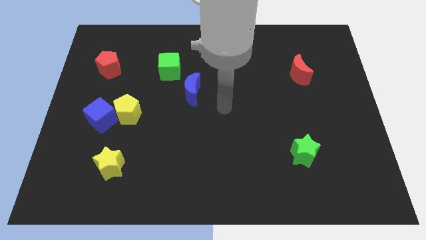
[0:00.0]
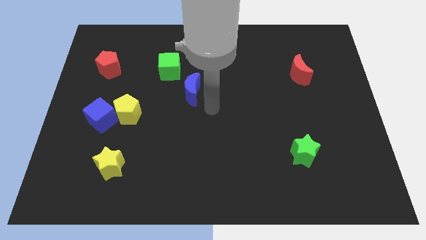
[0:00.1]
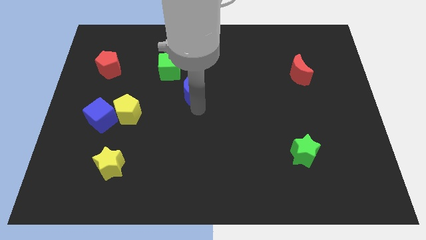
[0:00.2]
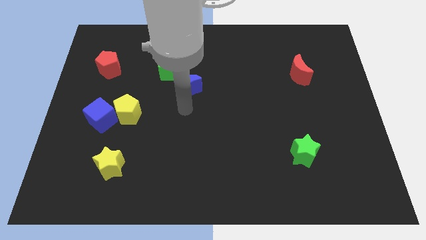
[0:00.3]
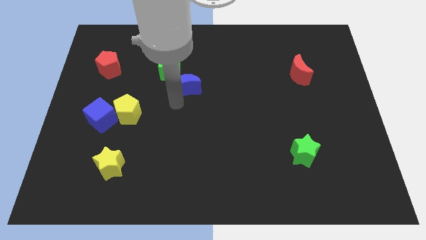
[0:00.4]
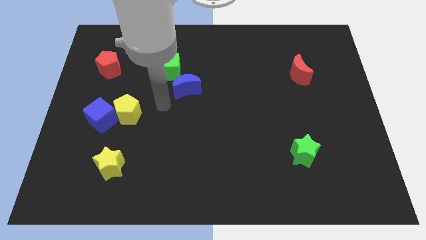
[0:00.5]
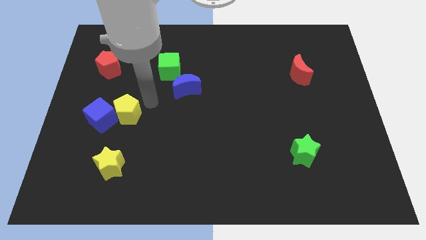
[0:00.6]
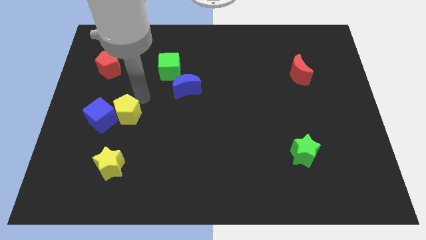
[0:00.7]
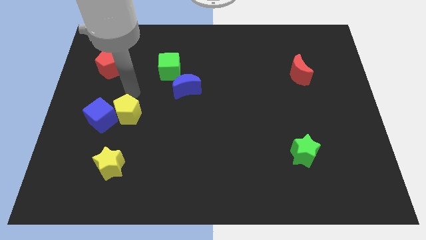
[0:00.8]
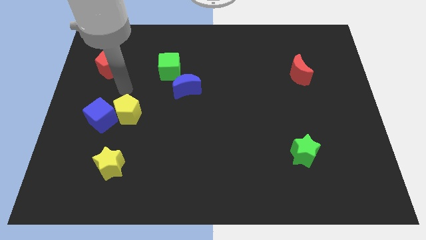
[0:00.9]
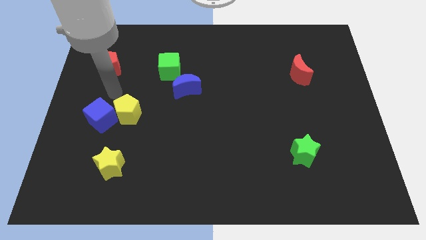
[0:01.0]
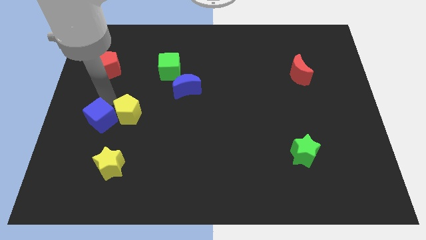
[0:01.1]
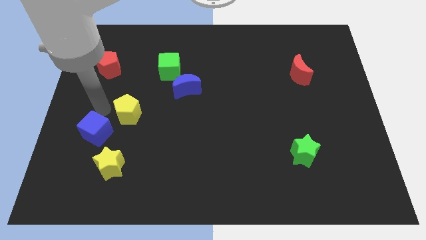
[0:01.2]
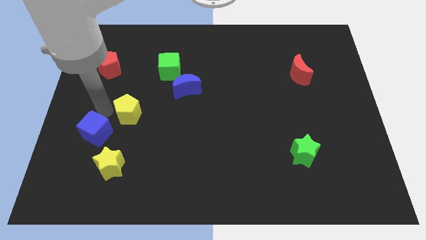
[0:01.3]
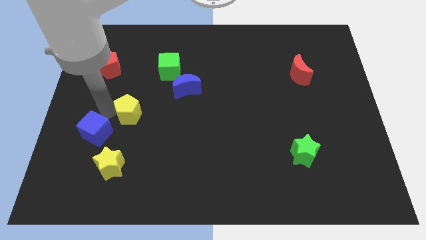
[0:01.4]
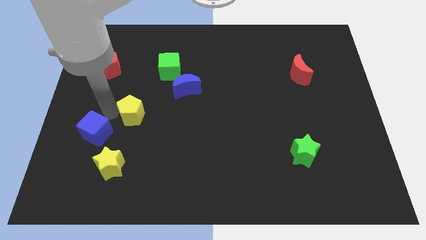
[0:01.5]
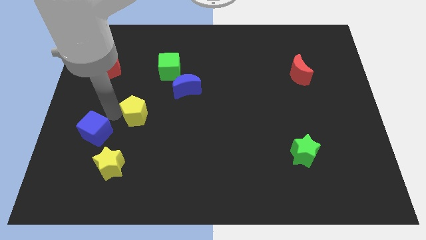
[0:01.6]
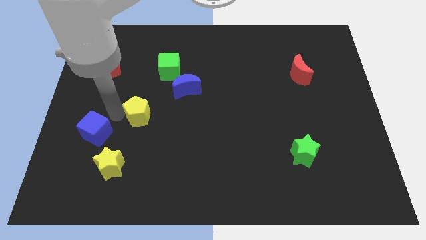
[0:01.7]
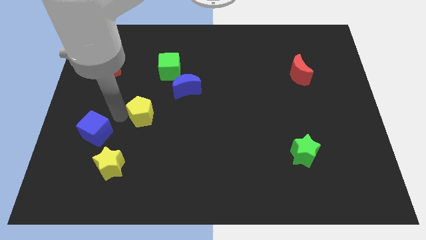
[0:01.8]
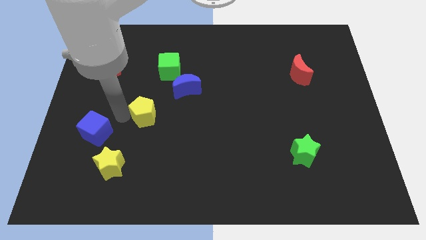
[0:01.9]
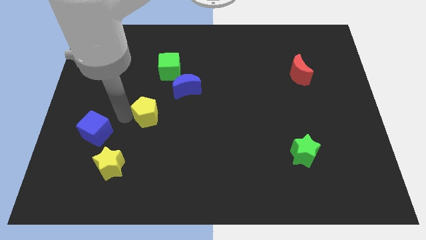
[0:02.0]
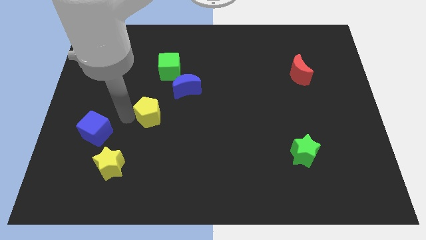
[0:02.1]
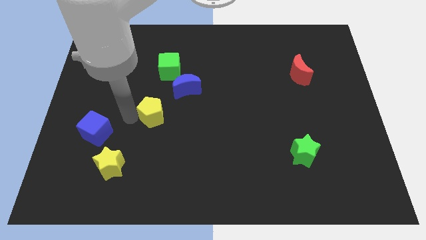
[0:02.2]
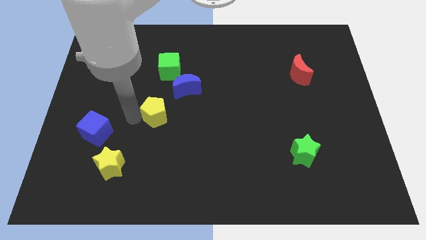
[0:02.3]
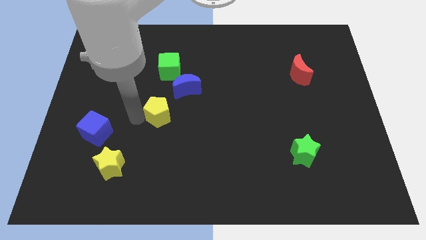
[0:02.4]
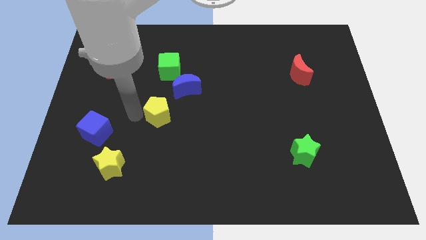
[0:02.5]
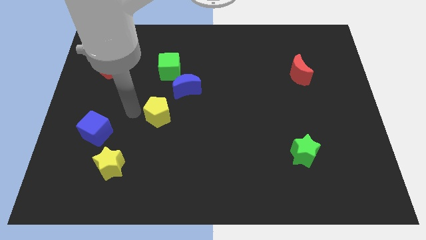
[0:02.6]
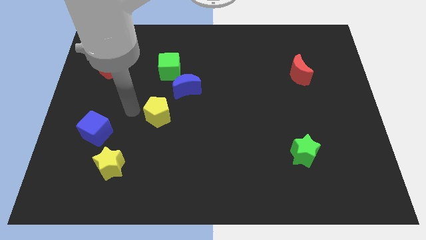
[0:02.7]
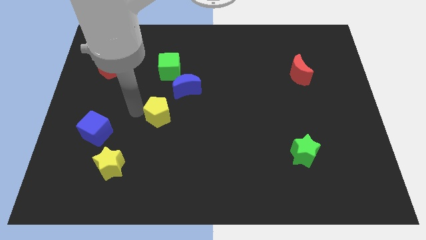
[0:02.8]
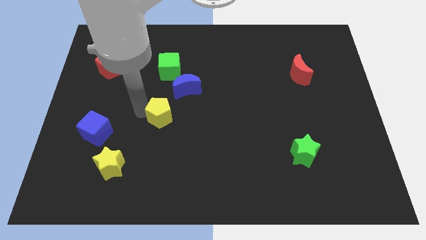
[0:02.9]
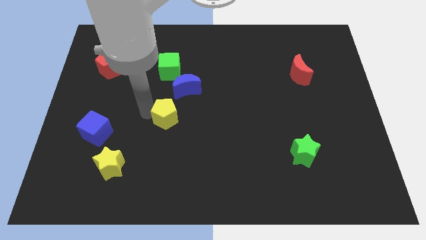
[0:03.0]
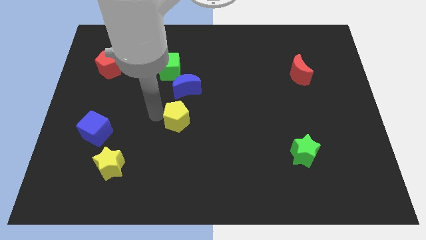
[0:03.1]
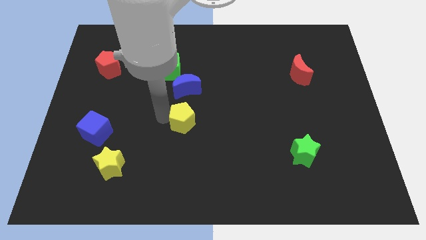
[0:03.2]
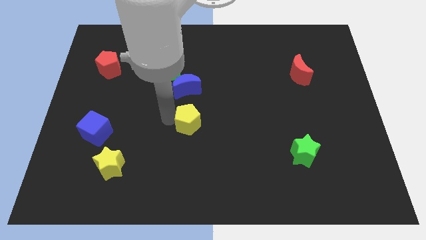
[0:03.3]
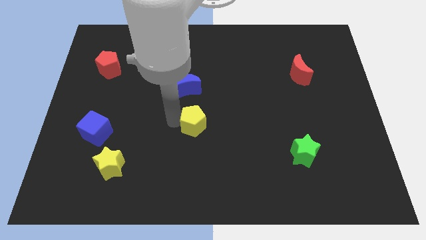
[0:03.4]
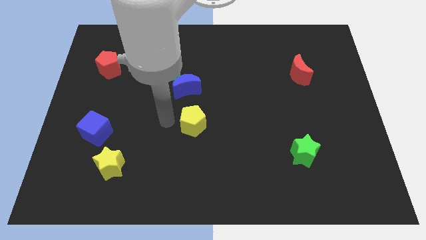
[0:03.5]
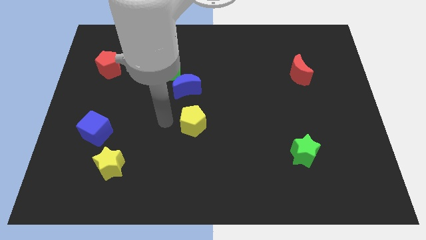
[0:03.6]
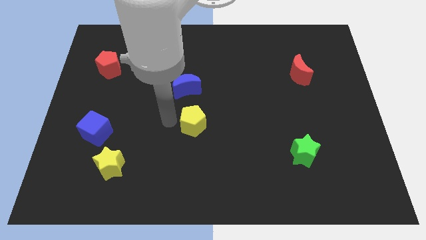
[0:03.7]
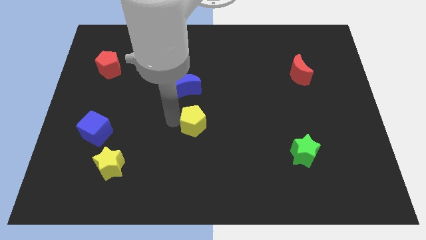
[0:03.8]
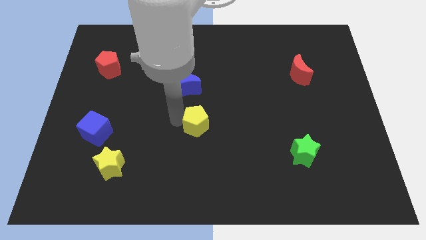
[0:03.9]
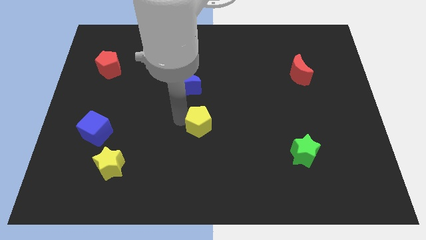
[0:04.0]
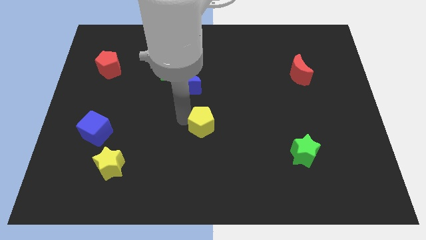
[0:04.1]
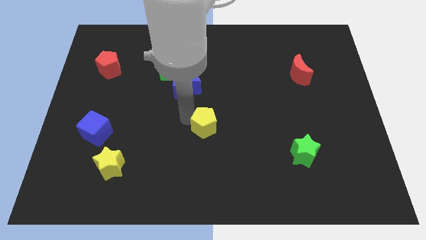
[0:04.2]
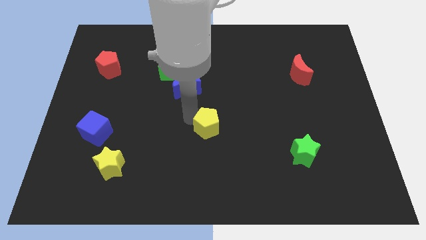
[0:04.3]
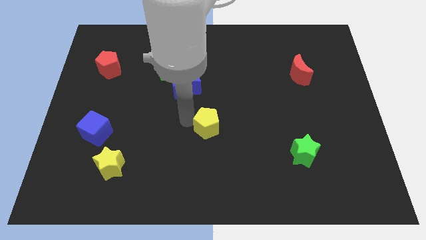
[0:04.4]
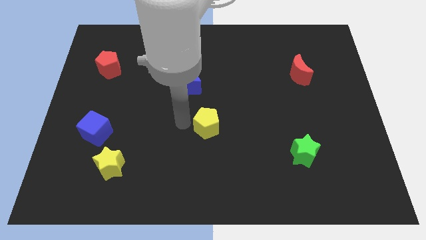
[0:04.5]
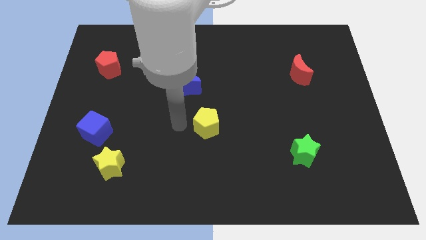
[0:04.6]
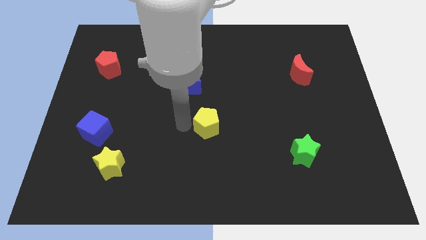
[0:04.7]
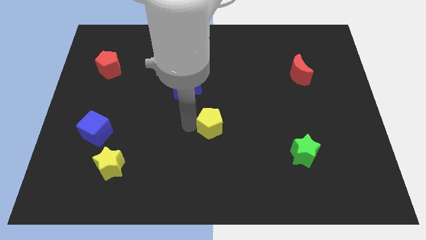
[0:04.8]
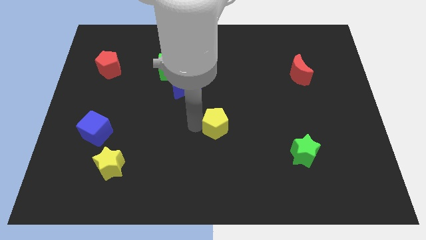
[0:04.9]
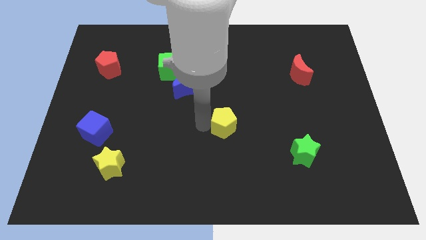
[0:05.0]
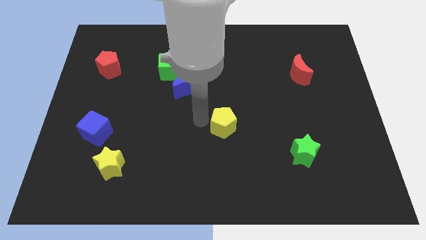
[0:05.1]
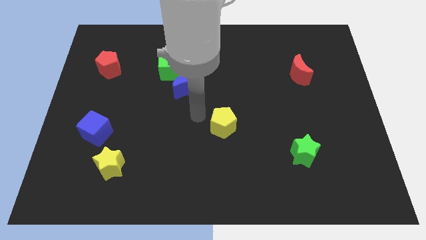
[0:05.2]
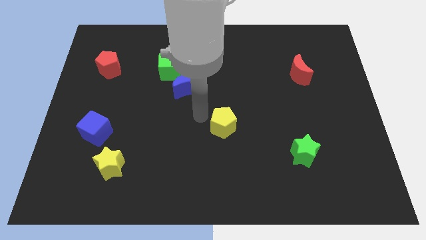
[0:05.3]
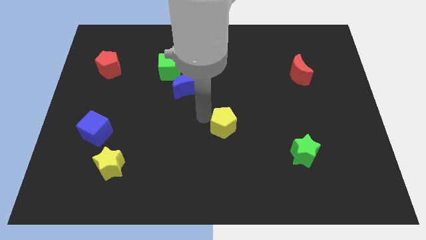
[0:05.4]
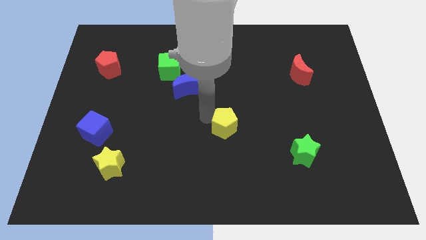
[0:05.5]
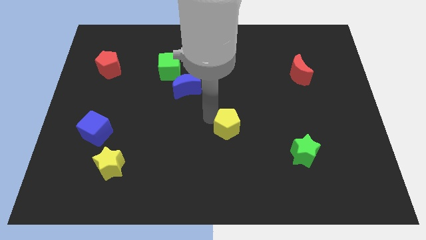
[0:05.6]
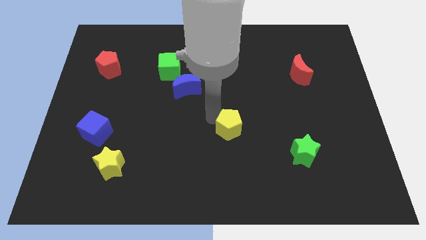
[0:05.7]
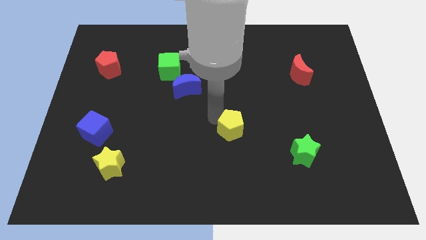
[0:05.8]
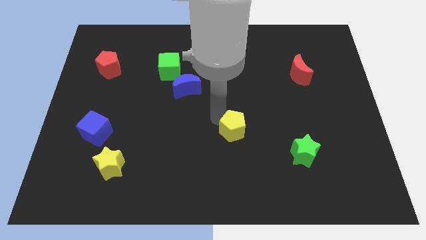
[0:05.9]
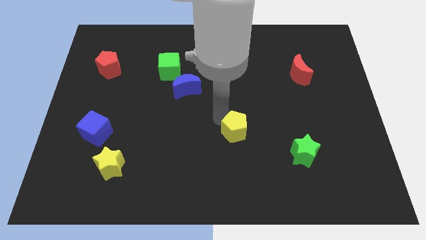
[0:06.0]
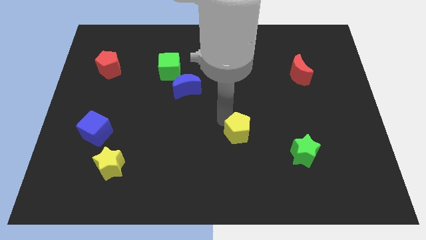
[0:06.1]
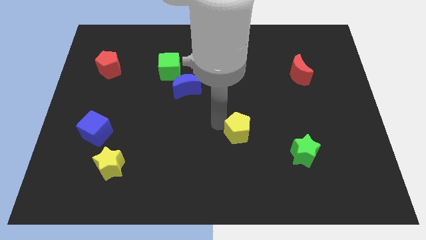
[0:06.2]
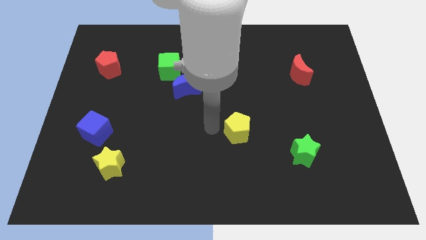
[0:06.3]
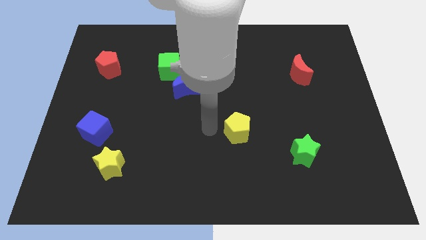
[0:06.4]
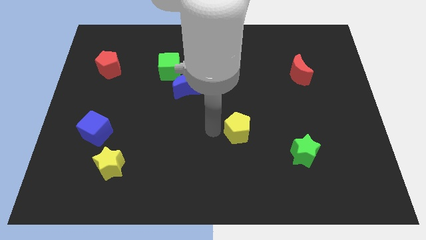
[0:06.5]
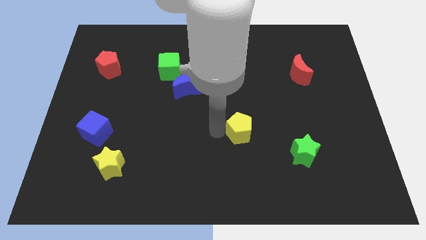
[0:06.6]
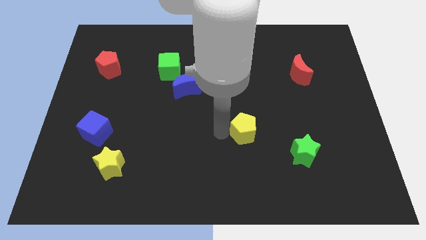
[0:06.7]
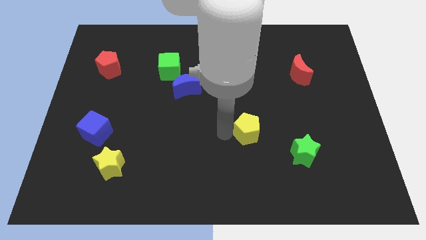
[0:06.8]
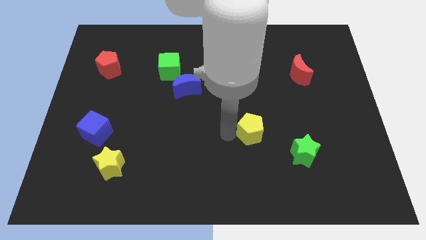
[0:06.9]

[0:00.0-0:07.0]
move the yellow pentagon to the top left side of the green star

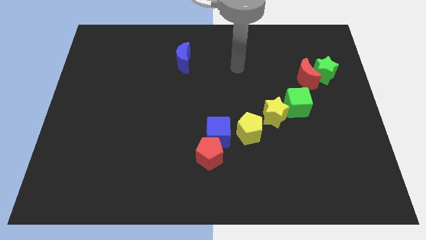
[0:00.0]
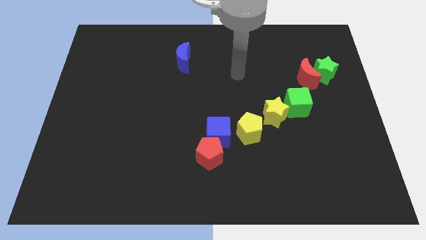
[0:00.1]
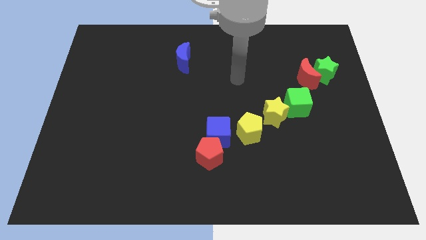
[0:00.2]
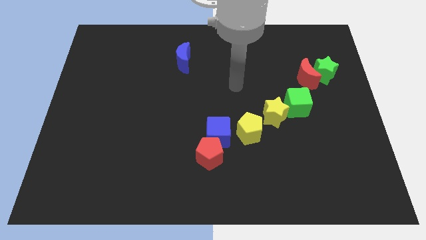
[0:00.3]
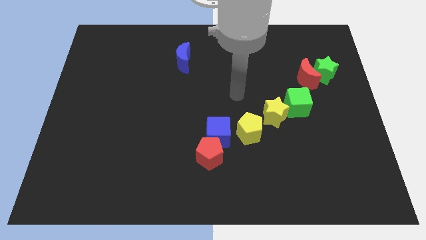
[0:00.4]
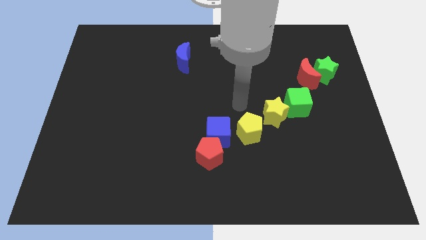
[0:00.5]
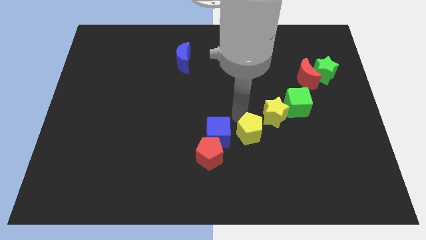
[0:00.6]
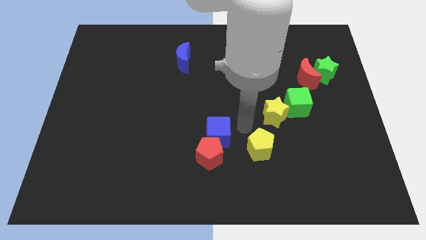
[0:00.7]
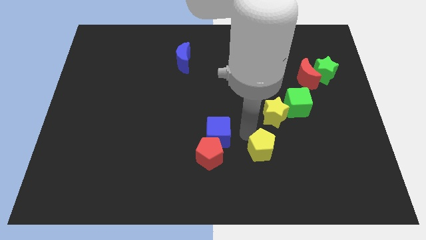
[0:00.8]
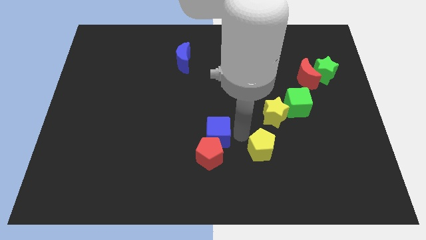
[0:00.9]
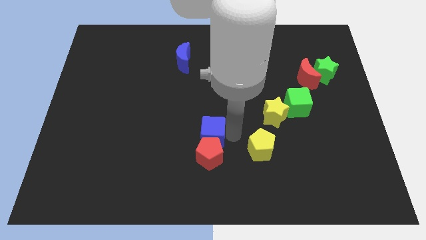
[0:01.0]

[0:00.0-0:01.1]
move the blue cube to the top left of the red pentagon
